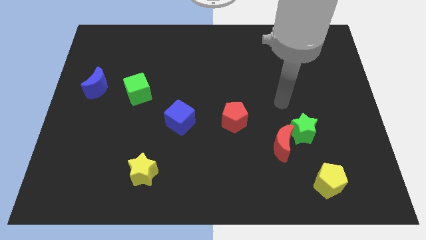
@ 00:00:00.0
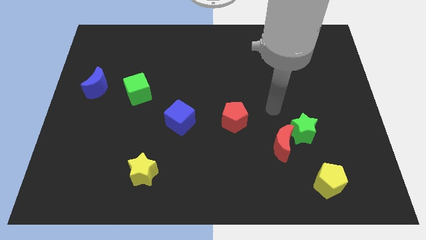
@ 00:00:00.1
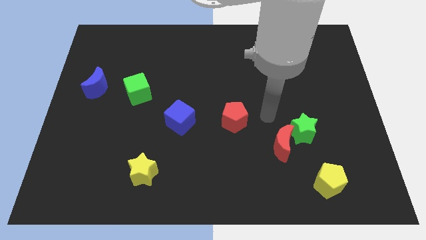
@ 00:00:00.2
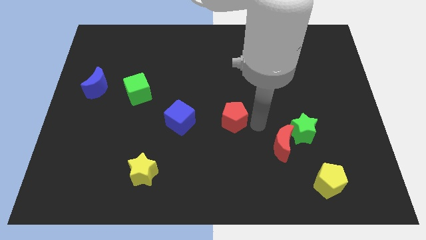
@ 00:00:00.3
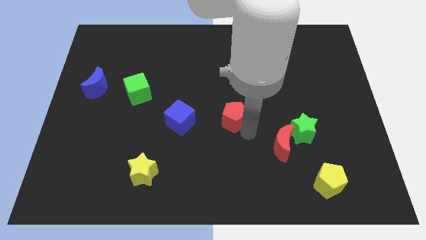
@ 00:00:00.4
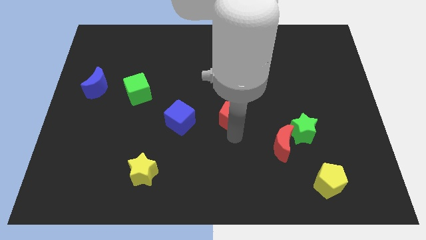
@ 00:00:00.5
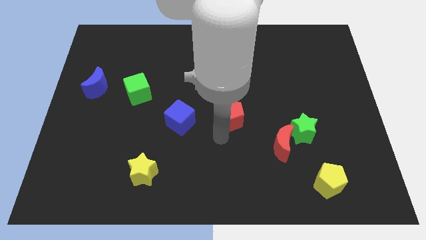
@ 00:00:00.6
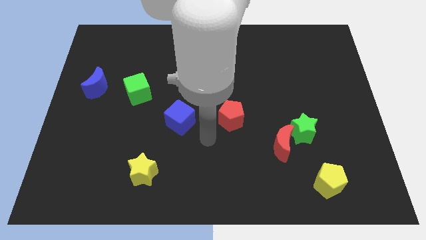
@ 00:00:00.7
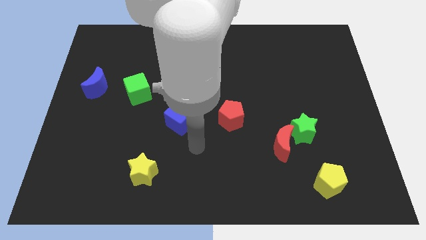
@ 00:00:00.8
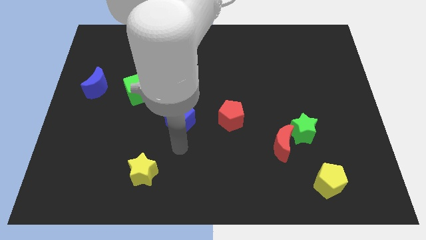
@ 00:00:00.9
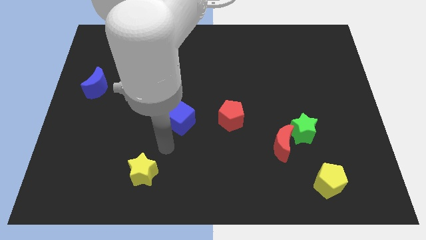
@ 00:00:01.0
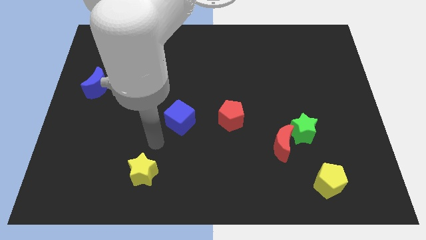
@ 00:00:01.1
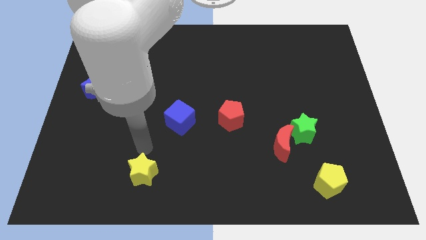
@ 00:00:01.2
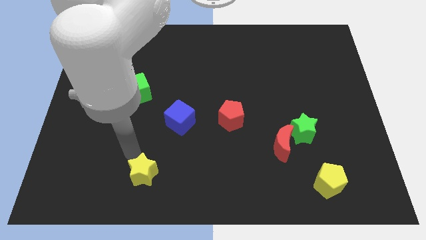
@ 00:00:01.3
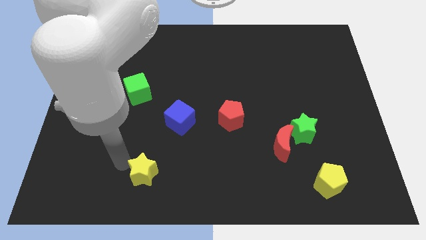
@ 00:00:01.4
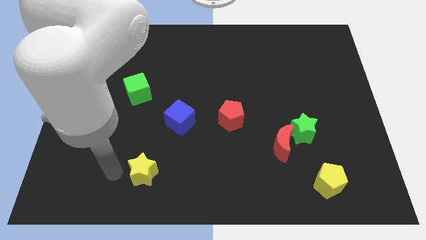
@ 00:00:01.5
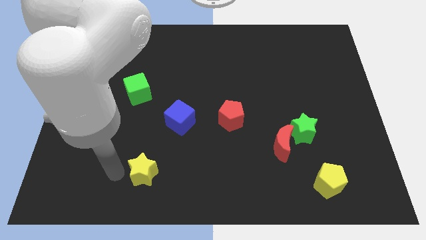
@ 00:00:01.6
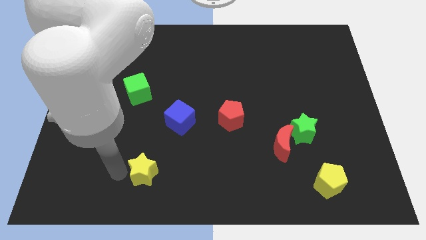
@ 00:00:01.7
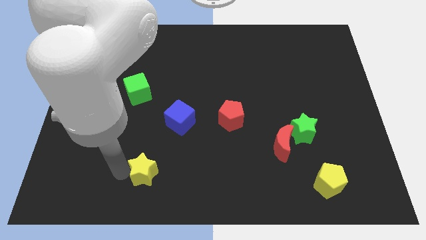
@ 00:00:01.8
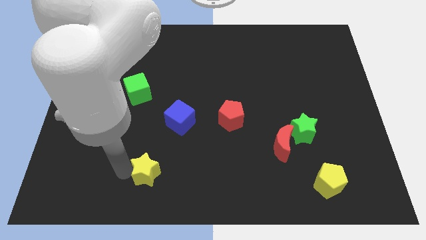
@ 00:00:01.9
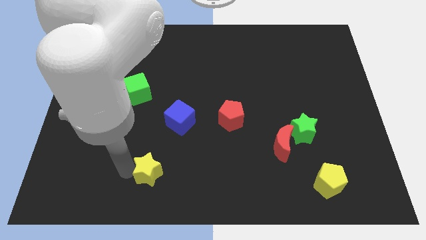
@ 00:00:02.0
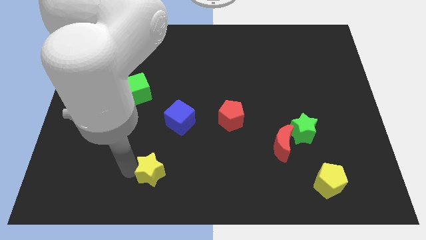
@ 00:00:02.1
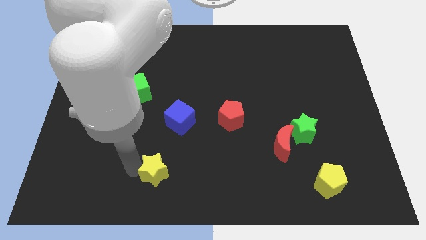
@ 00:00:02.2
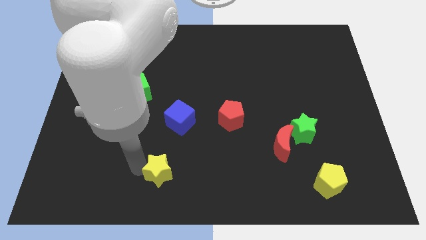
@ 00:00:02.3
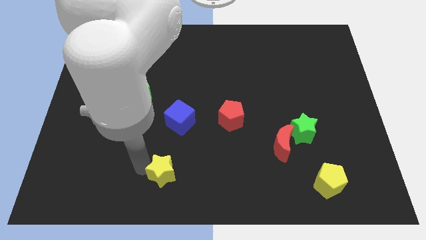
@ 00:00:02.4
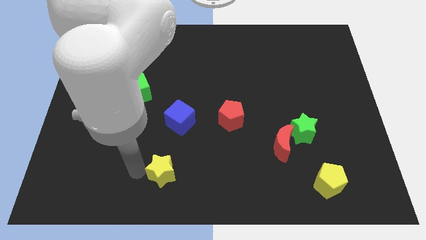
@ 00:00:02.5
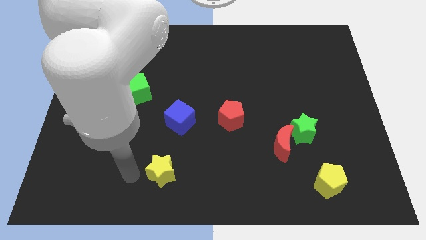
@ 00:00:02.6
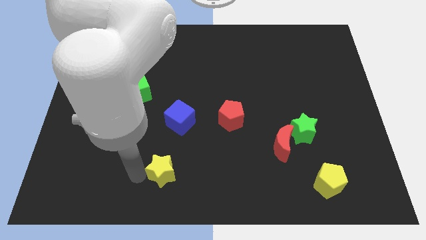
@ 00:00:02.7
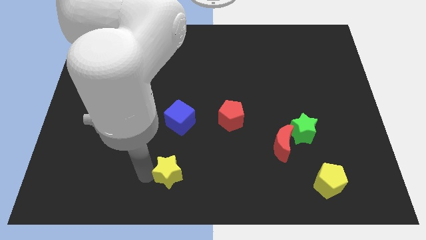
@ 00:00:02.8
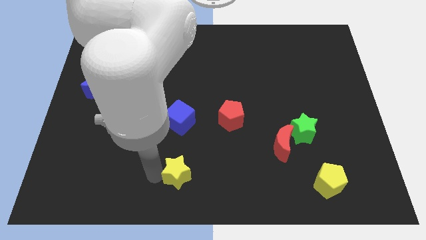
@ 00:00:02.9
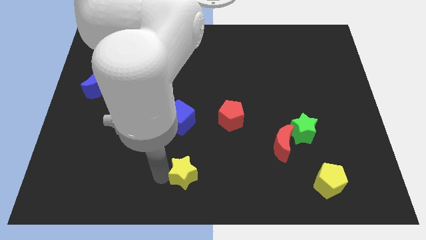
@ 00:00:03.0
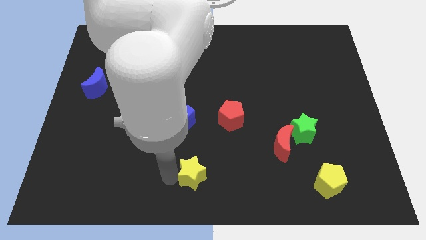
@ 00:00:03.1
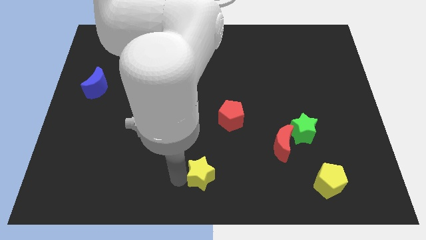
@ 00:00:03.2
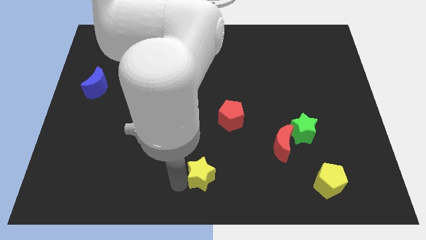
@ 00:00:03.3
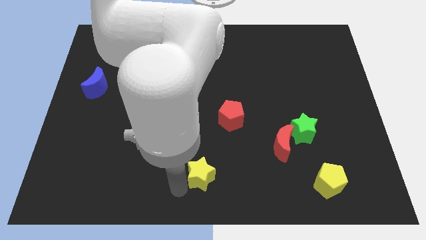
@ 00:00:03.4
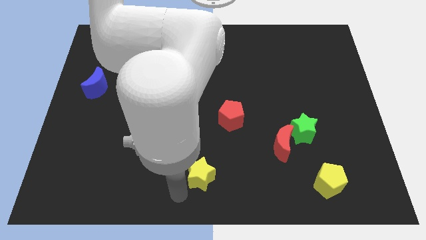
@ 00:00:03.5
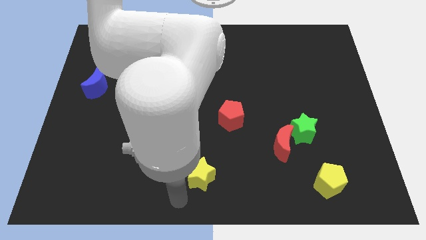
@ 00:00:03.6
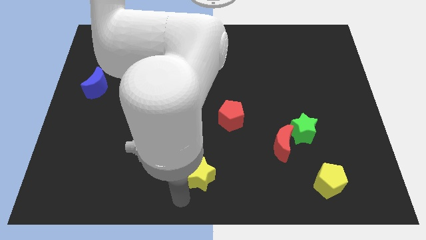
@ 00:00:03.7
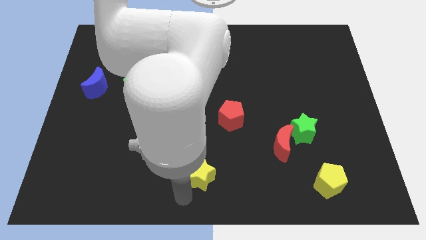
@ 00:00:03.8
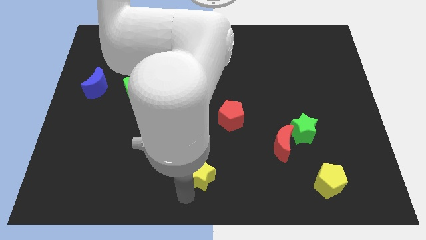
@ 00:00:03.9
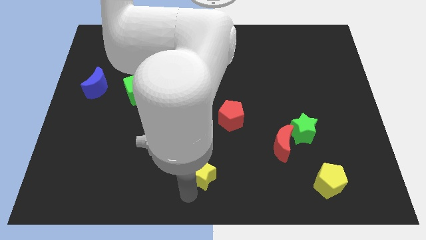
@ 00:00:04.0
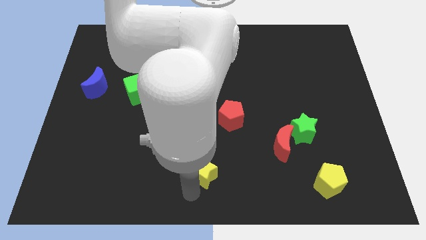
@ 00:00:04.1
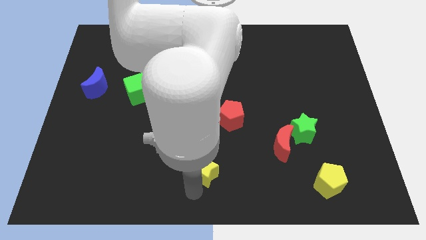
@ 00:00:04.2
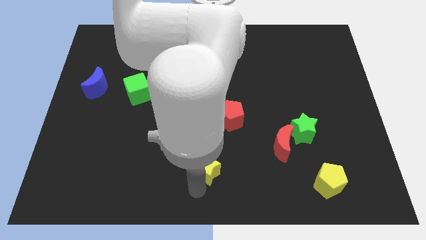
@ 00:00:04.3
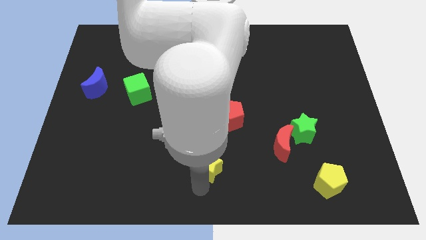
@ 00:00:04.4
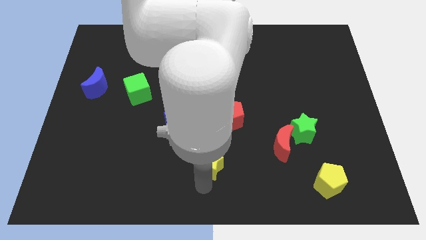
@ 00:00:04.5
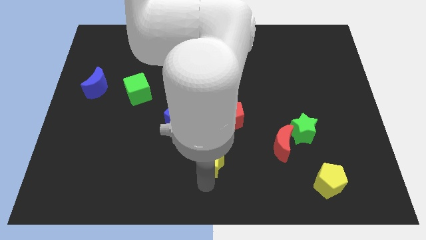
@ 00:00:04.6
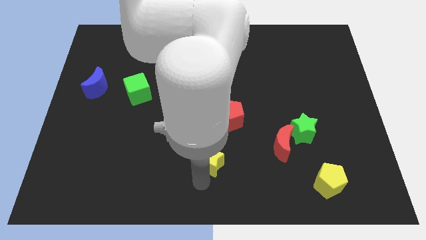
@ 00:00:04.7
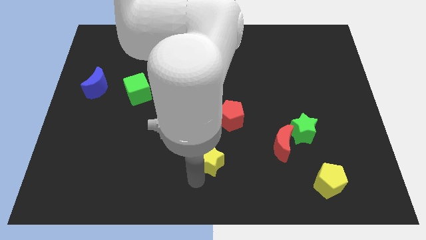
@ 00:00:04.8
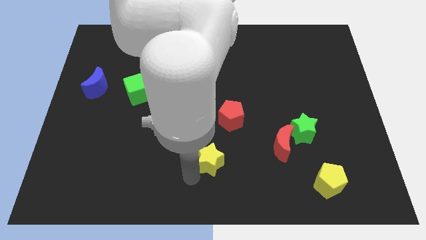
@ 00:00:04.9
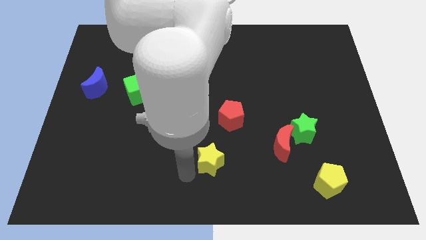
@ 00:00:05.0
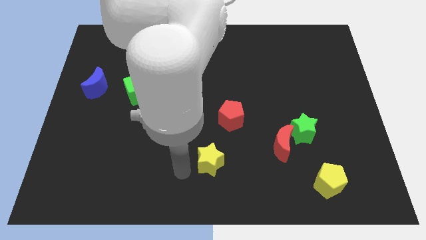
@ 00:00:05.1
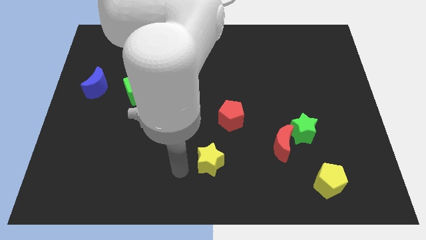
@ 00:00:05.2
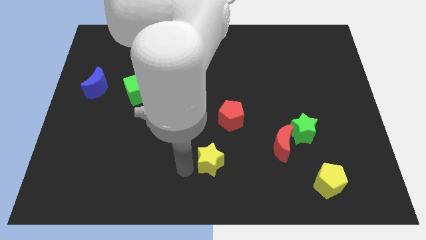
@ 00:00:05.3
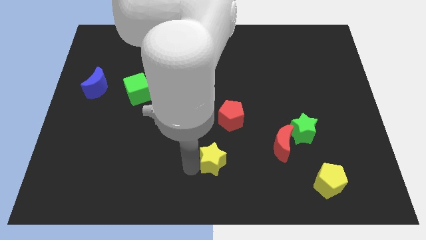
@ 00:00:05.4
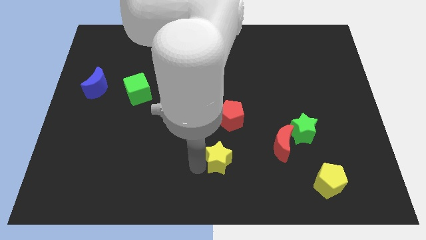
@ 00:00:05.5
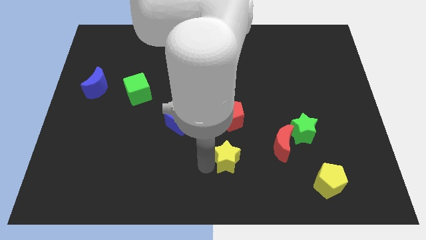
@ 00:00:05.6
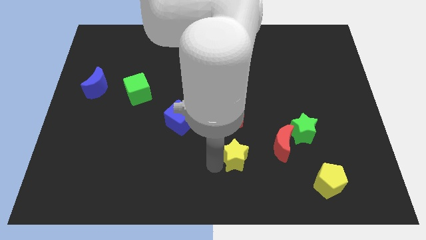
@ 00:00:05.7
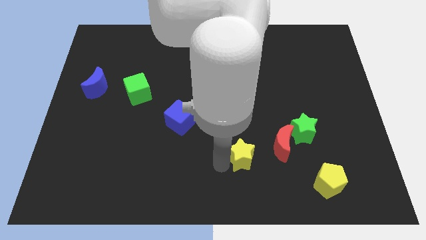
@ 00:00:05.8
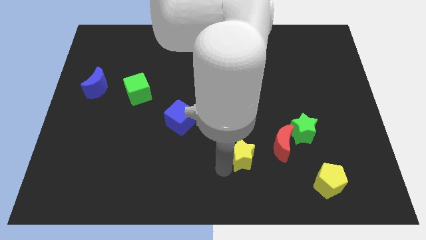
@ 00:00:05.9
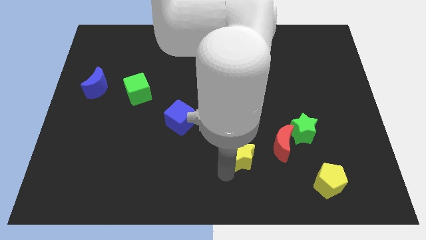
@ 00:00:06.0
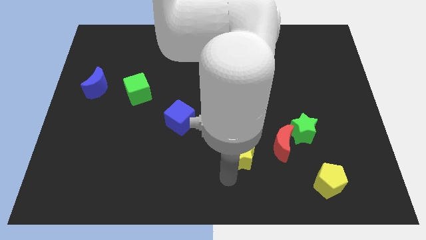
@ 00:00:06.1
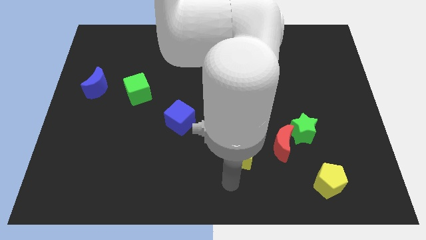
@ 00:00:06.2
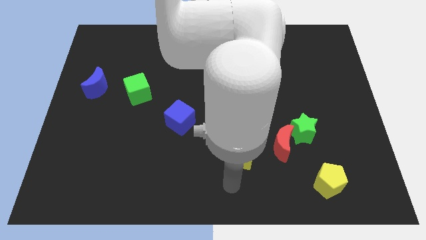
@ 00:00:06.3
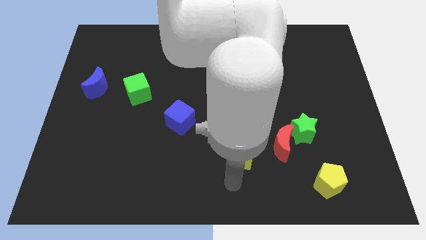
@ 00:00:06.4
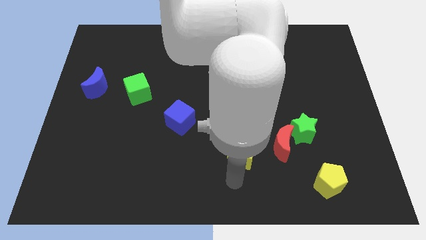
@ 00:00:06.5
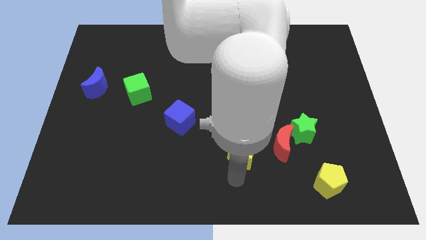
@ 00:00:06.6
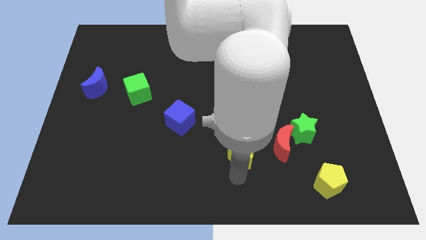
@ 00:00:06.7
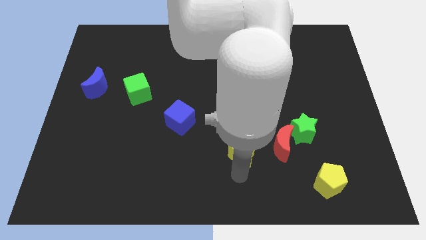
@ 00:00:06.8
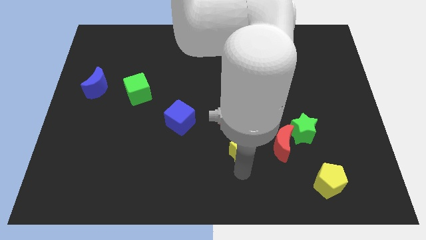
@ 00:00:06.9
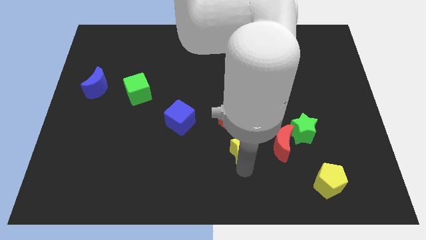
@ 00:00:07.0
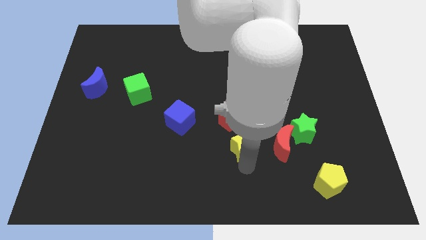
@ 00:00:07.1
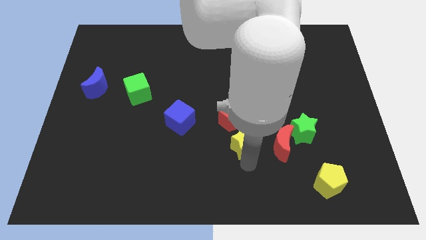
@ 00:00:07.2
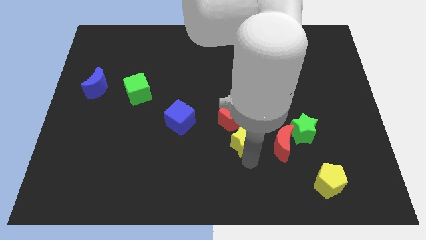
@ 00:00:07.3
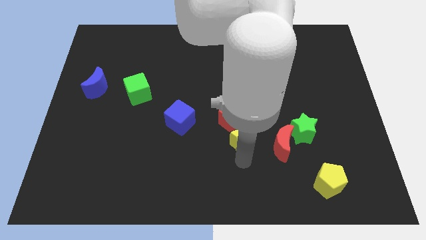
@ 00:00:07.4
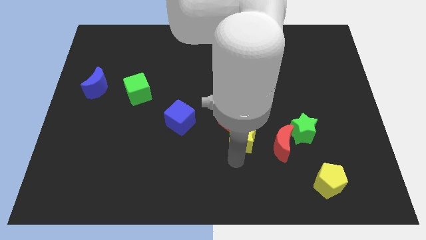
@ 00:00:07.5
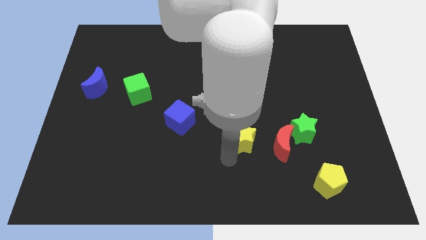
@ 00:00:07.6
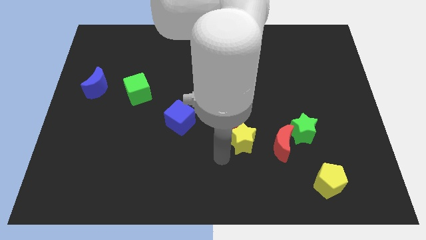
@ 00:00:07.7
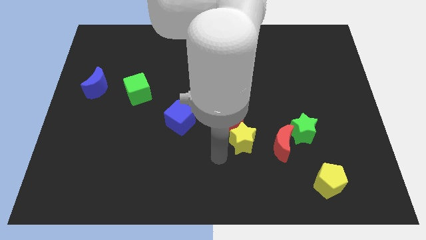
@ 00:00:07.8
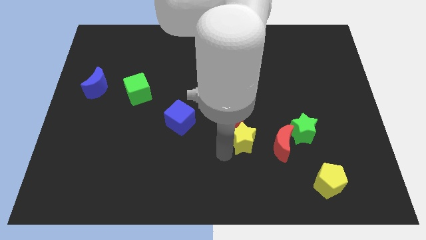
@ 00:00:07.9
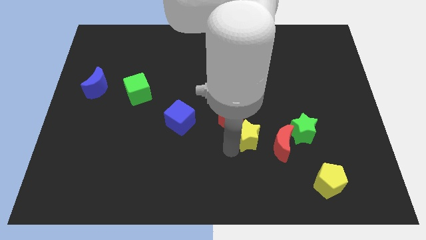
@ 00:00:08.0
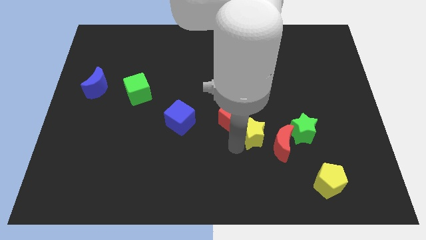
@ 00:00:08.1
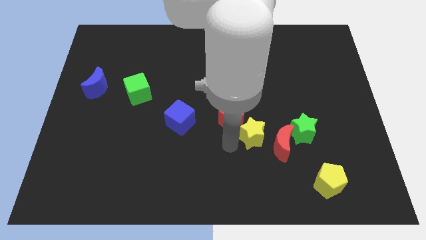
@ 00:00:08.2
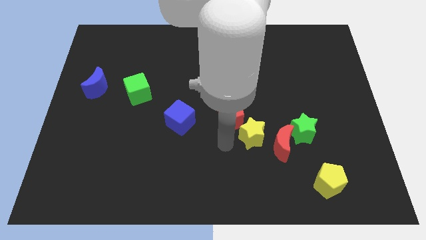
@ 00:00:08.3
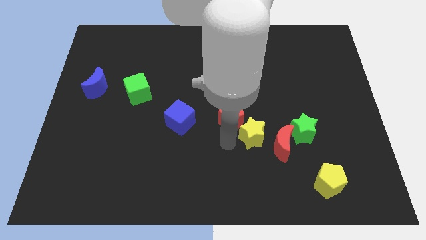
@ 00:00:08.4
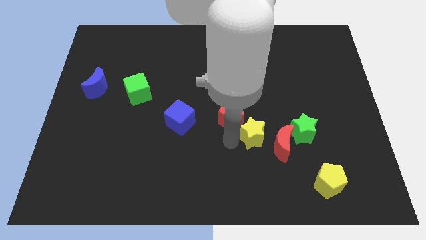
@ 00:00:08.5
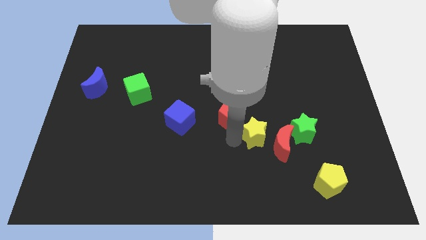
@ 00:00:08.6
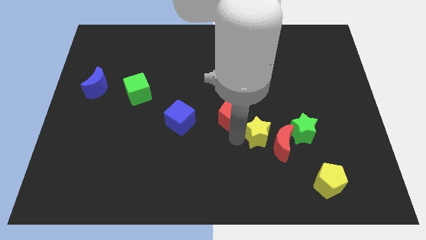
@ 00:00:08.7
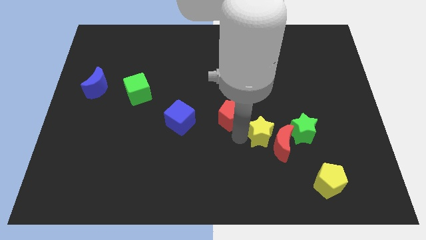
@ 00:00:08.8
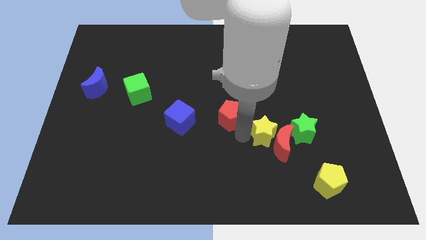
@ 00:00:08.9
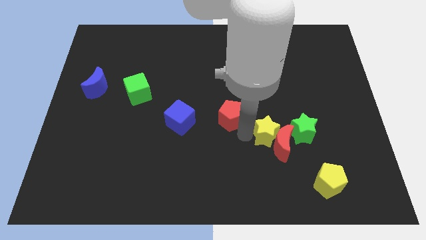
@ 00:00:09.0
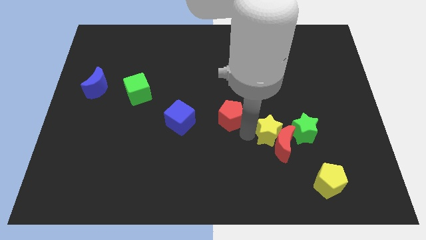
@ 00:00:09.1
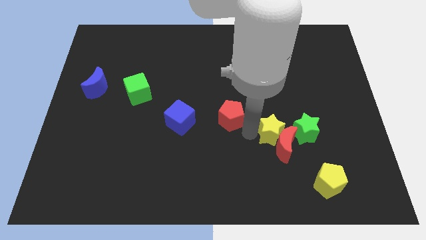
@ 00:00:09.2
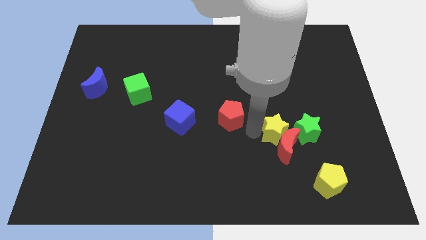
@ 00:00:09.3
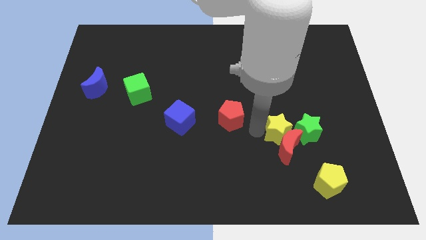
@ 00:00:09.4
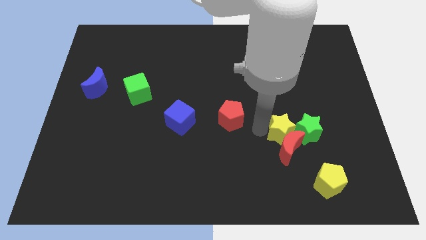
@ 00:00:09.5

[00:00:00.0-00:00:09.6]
move the yellow star to the green star
